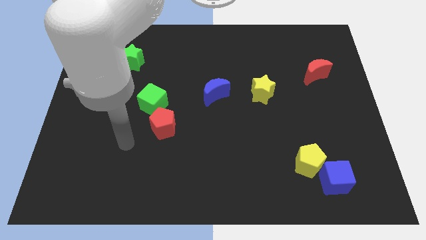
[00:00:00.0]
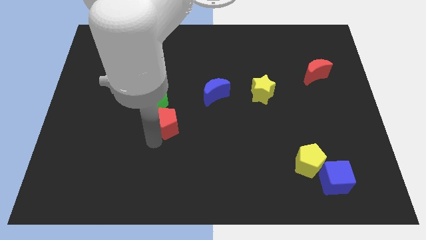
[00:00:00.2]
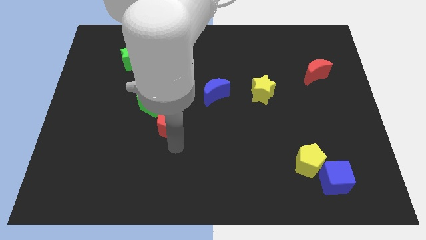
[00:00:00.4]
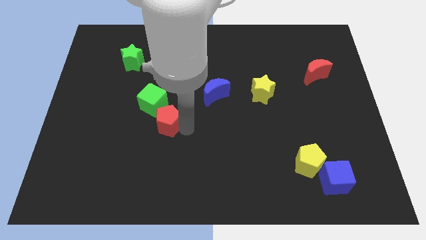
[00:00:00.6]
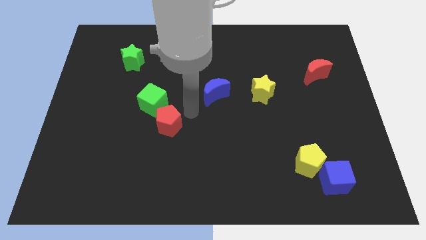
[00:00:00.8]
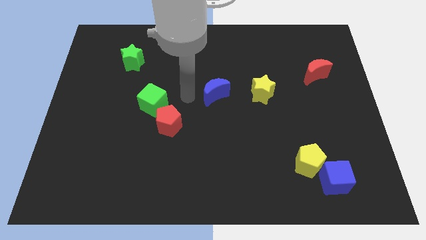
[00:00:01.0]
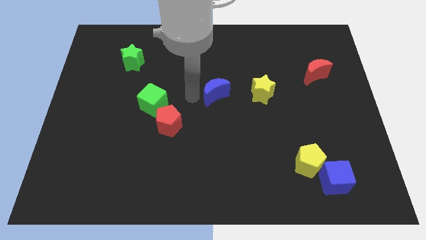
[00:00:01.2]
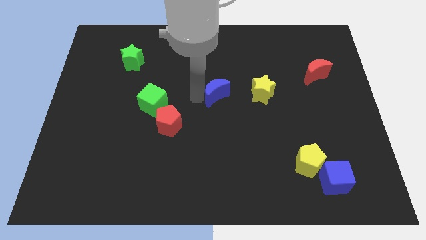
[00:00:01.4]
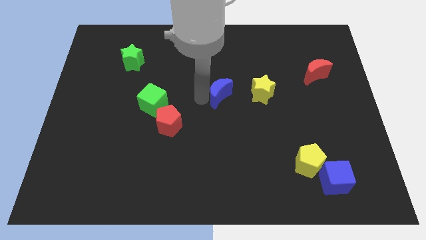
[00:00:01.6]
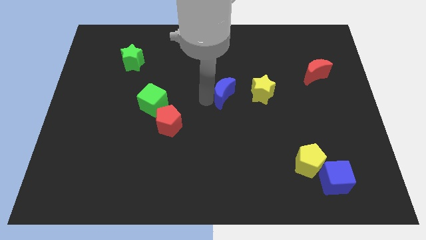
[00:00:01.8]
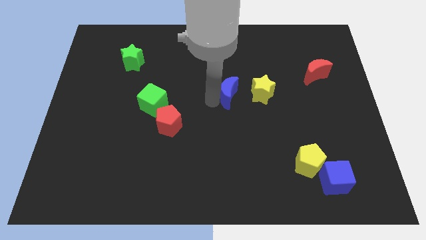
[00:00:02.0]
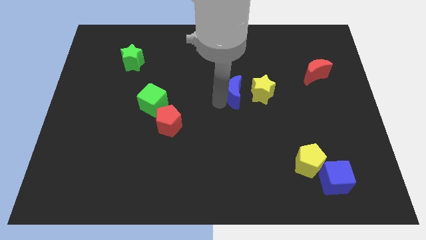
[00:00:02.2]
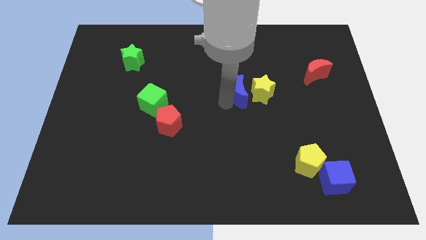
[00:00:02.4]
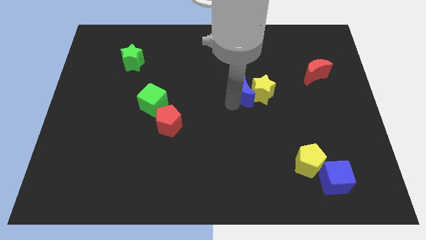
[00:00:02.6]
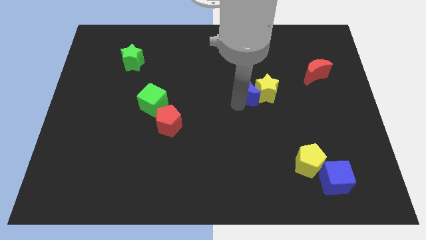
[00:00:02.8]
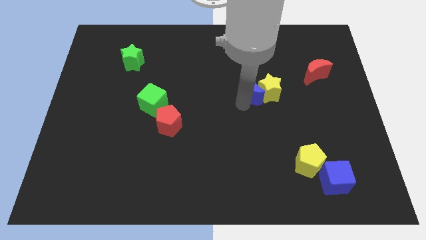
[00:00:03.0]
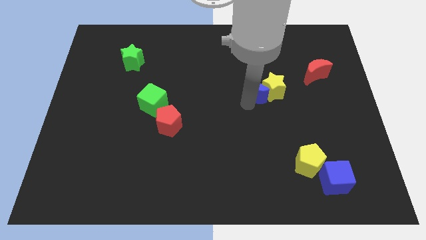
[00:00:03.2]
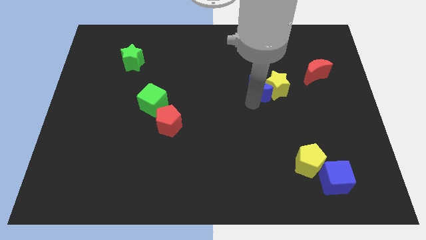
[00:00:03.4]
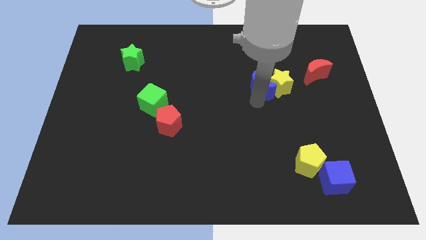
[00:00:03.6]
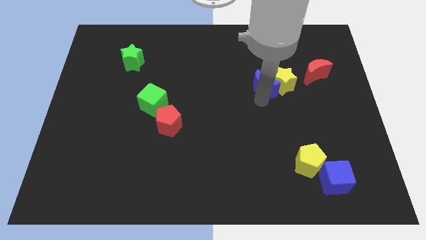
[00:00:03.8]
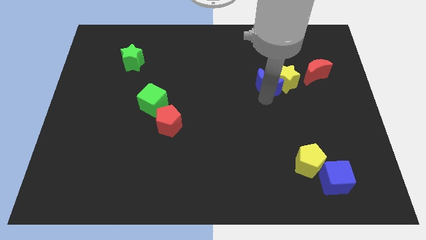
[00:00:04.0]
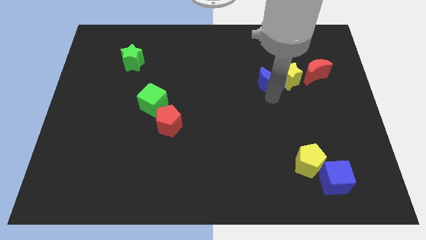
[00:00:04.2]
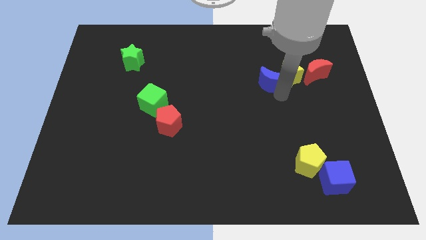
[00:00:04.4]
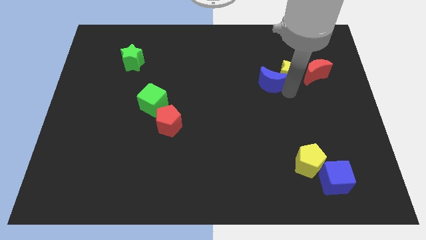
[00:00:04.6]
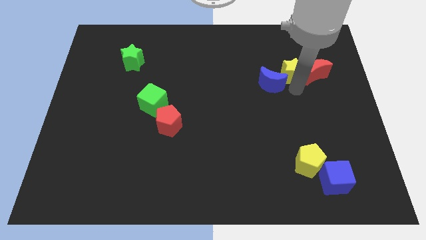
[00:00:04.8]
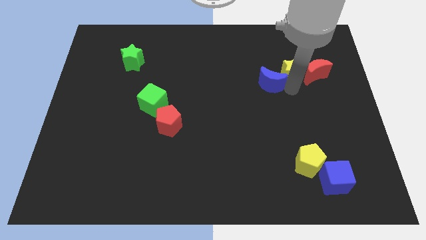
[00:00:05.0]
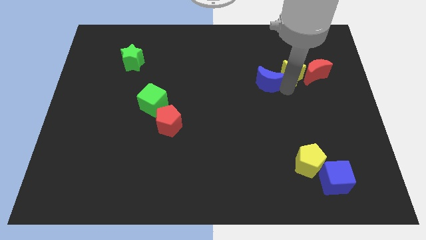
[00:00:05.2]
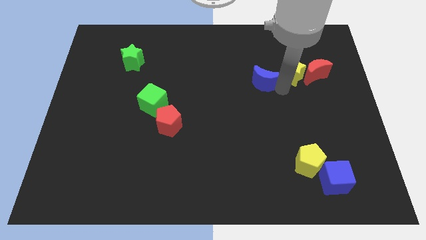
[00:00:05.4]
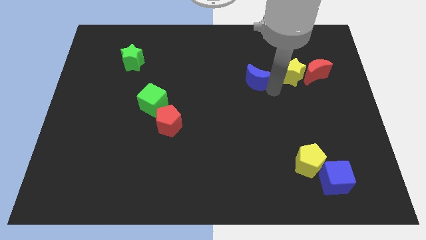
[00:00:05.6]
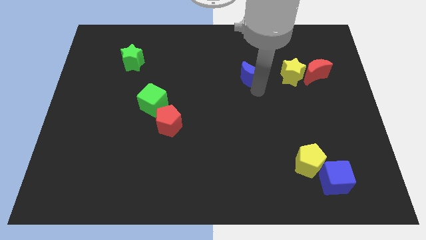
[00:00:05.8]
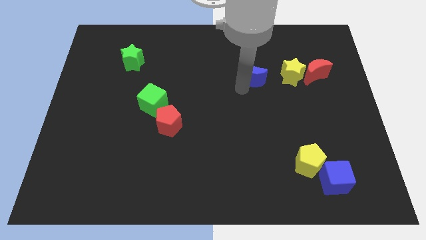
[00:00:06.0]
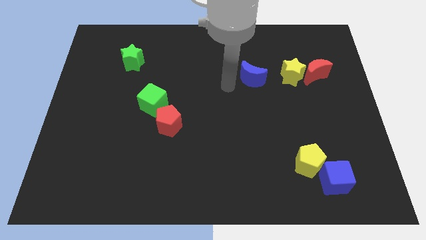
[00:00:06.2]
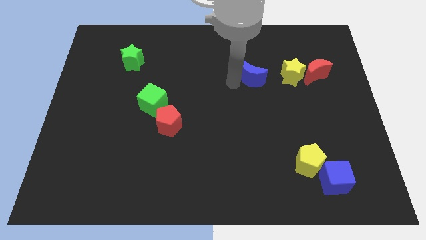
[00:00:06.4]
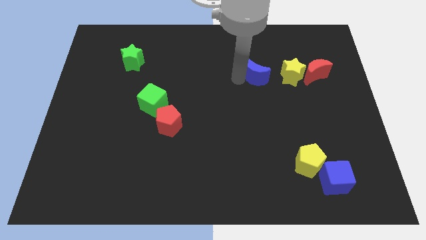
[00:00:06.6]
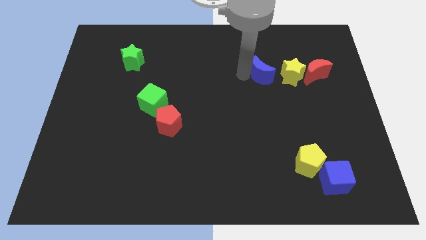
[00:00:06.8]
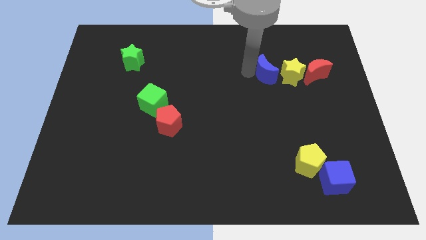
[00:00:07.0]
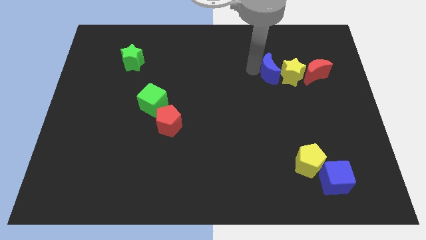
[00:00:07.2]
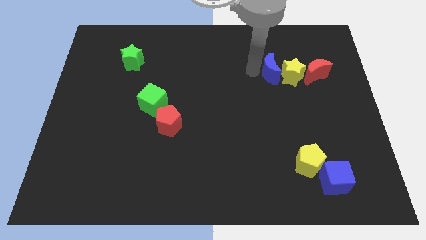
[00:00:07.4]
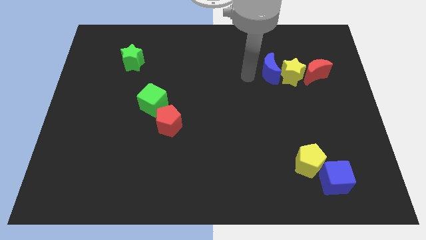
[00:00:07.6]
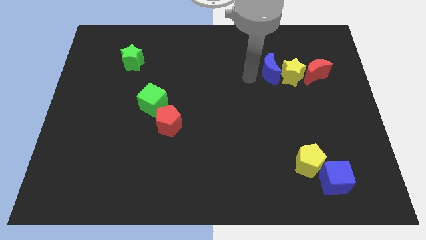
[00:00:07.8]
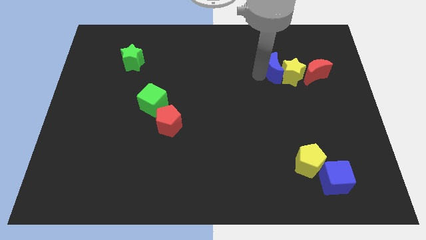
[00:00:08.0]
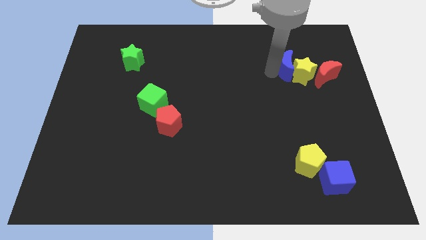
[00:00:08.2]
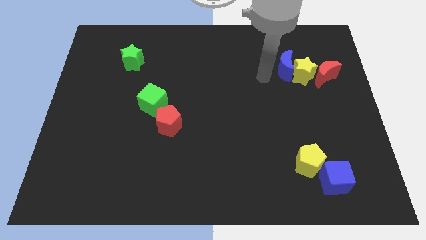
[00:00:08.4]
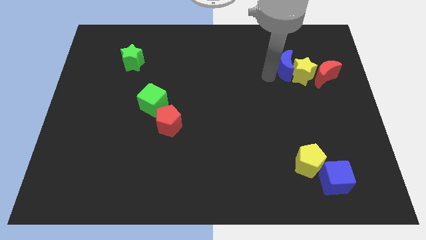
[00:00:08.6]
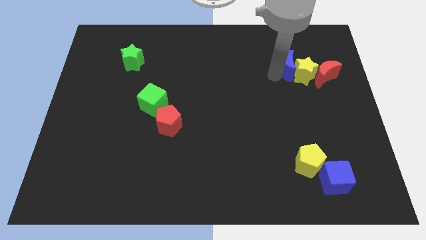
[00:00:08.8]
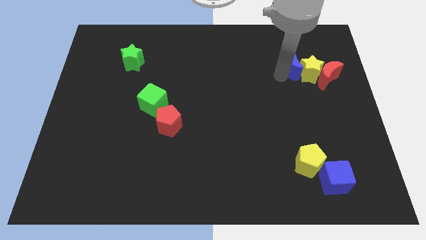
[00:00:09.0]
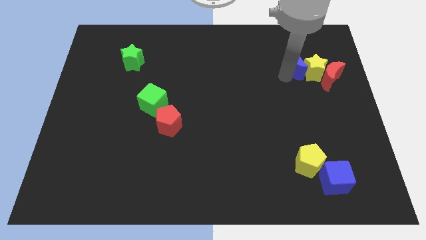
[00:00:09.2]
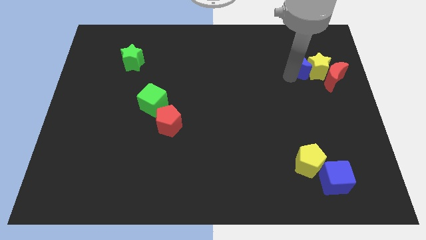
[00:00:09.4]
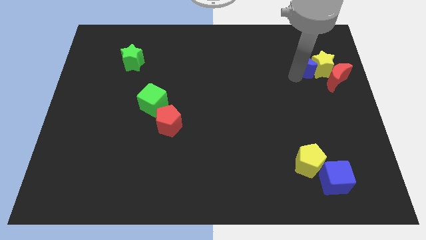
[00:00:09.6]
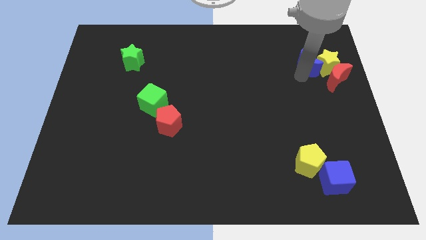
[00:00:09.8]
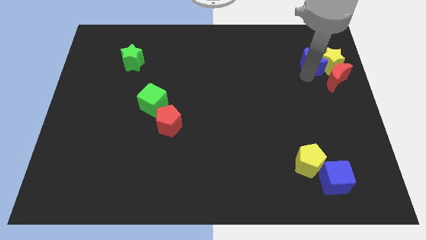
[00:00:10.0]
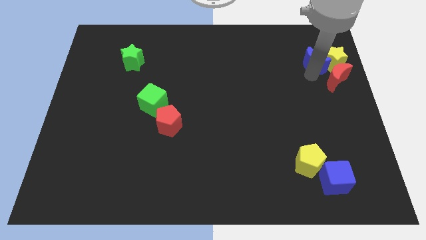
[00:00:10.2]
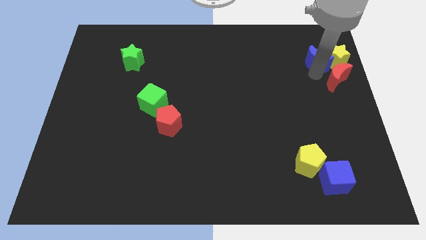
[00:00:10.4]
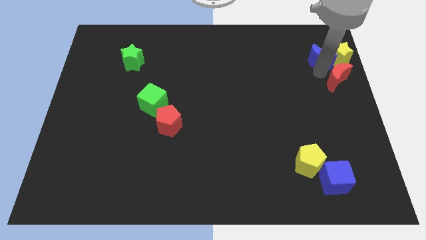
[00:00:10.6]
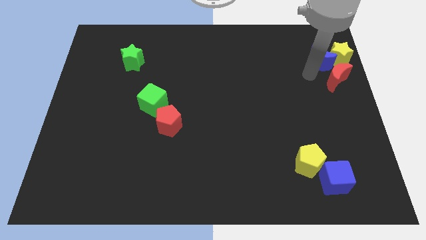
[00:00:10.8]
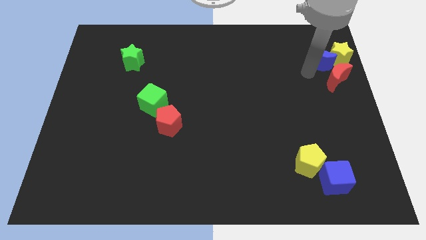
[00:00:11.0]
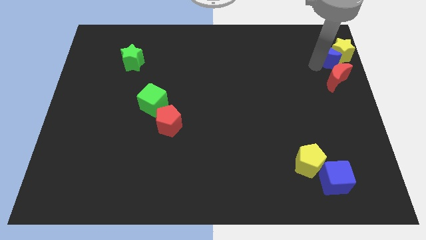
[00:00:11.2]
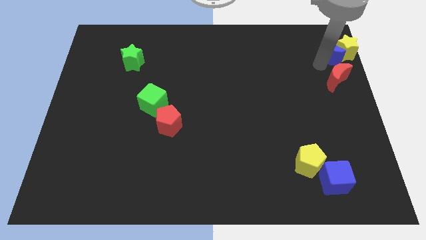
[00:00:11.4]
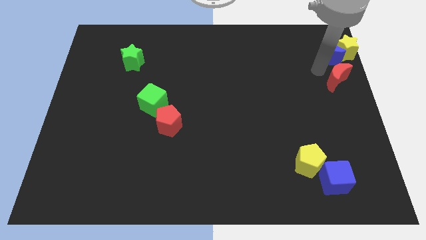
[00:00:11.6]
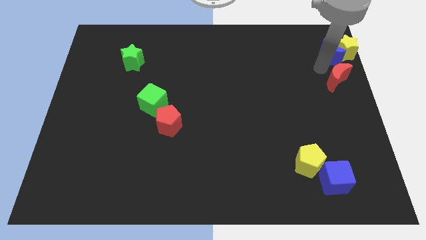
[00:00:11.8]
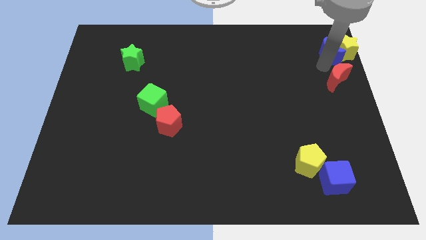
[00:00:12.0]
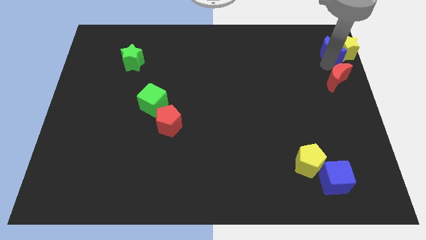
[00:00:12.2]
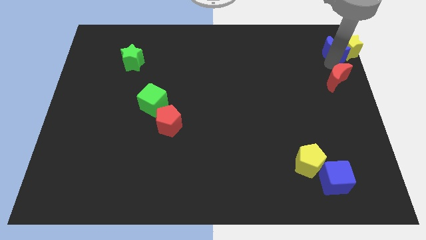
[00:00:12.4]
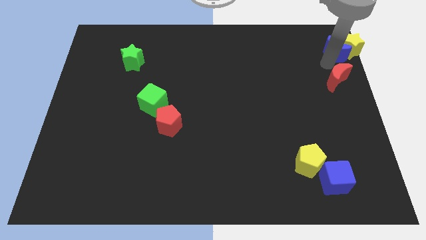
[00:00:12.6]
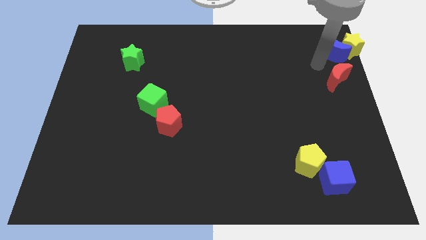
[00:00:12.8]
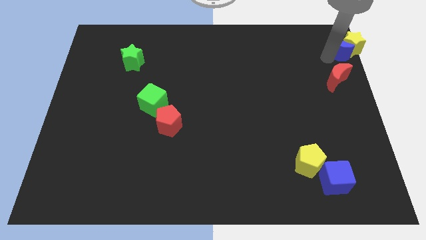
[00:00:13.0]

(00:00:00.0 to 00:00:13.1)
push the blue moon to the top right of the board

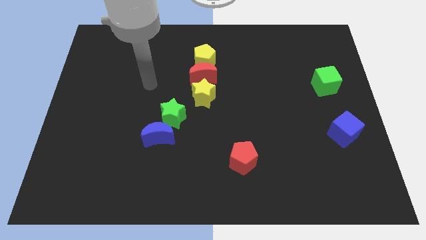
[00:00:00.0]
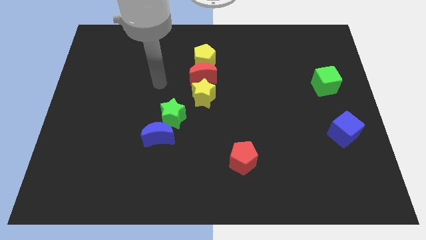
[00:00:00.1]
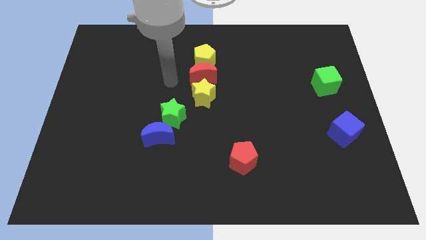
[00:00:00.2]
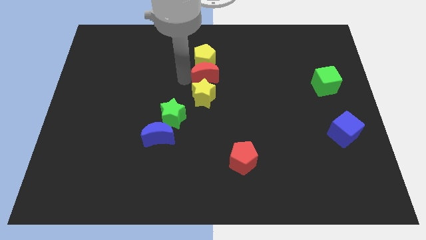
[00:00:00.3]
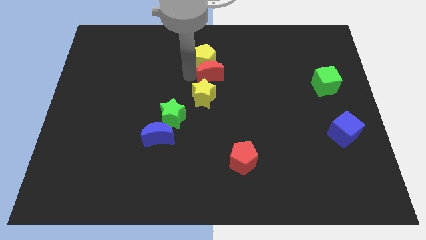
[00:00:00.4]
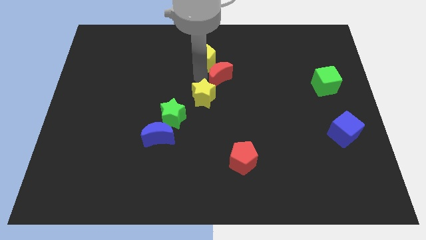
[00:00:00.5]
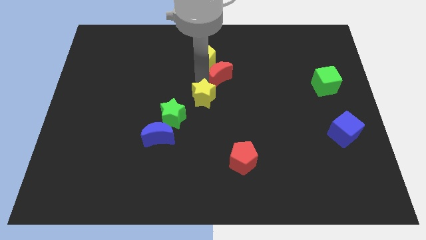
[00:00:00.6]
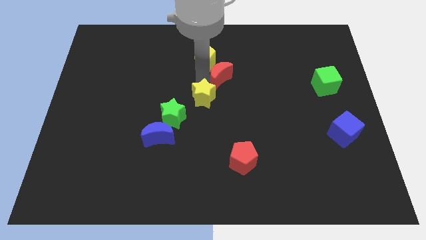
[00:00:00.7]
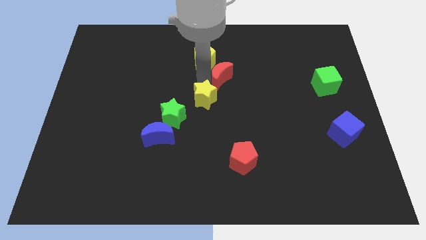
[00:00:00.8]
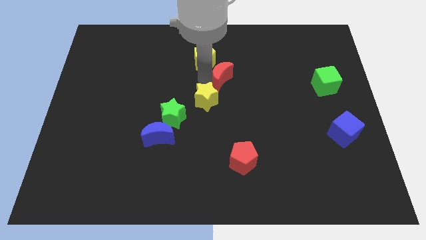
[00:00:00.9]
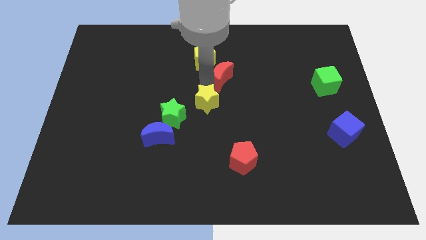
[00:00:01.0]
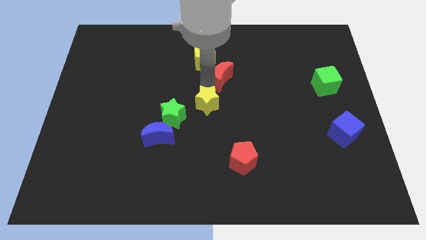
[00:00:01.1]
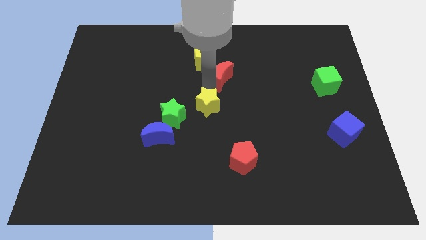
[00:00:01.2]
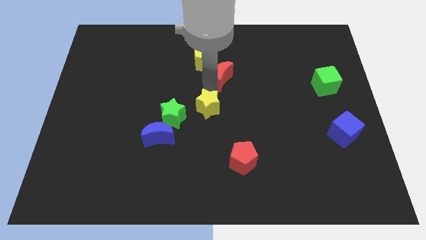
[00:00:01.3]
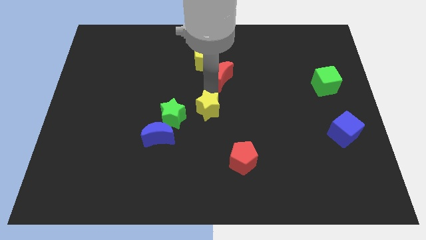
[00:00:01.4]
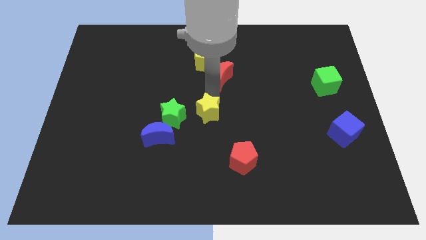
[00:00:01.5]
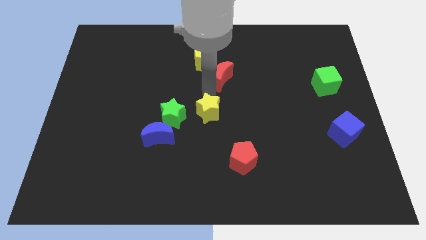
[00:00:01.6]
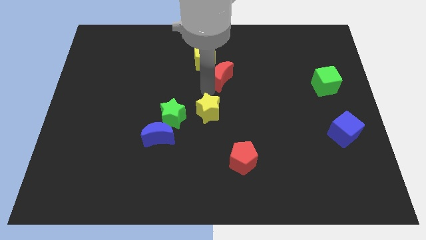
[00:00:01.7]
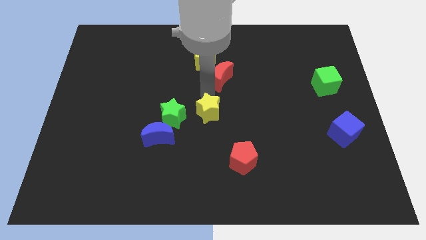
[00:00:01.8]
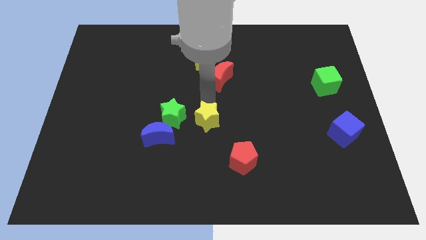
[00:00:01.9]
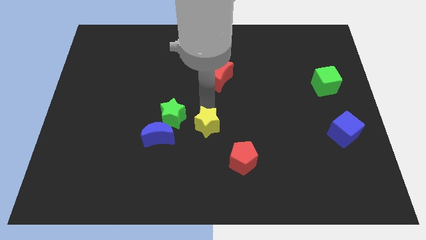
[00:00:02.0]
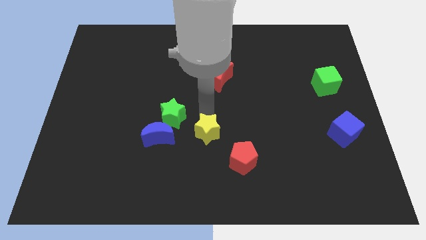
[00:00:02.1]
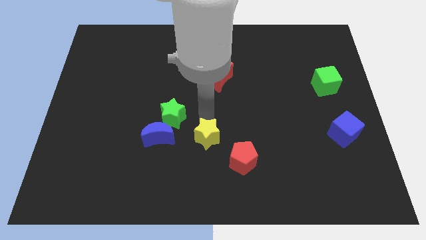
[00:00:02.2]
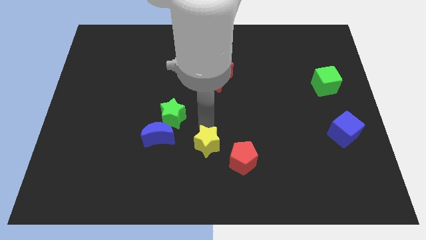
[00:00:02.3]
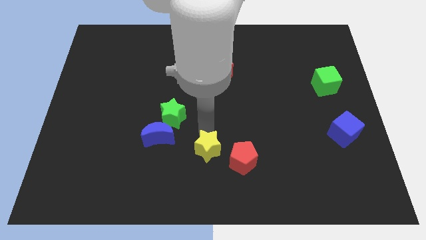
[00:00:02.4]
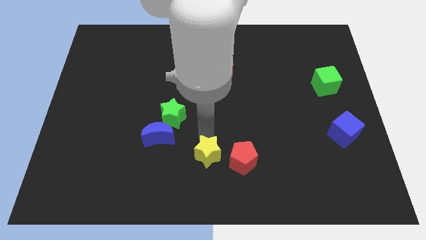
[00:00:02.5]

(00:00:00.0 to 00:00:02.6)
push the yellow star to the bottom
